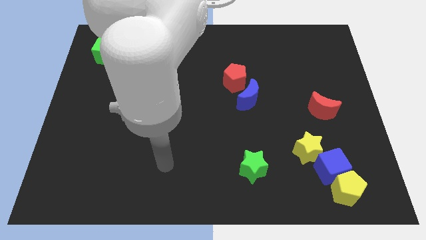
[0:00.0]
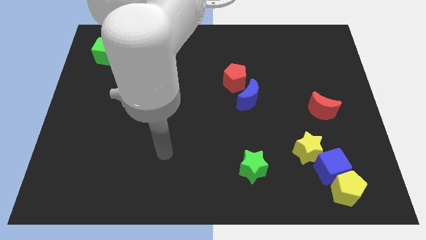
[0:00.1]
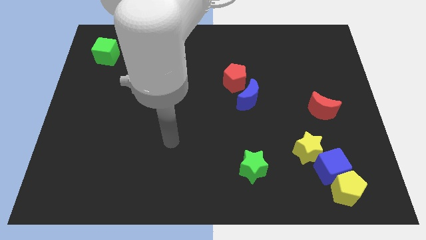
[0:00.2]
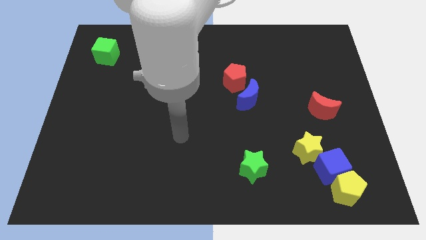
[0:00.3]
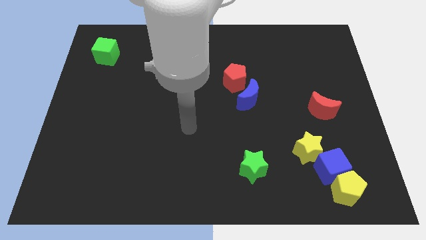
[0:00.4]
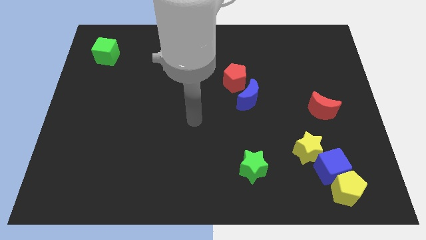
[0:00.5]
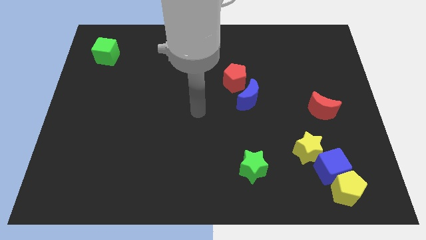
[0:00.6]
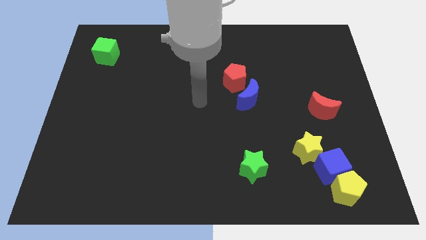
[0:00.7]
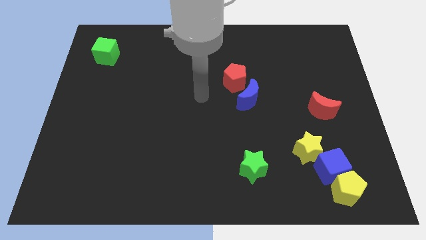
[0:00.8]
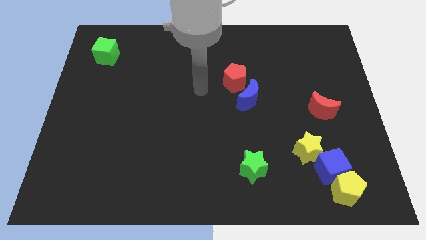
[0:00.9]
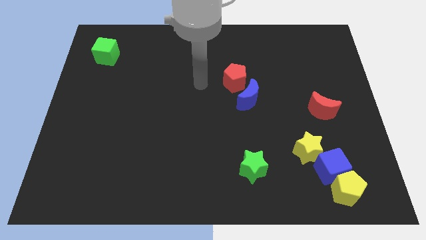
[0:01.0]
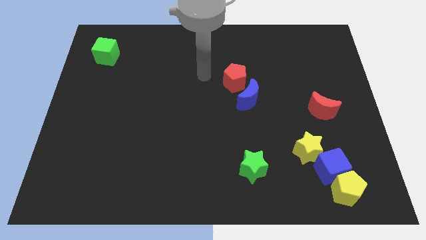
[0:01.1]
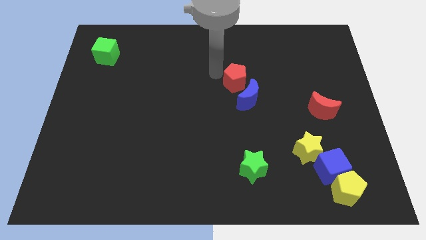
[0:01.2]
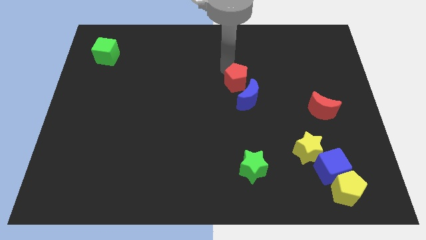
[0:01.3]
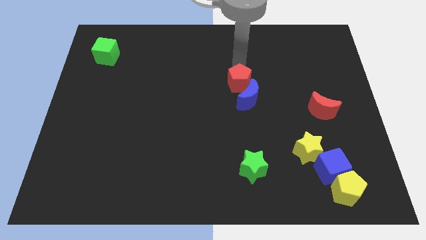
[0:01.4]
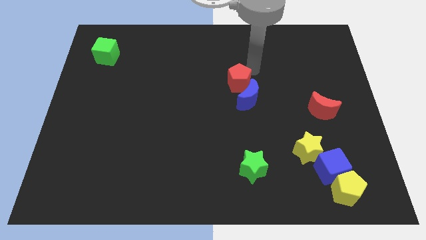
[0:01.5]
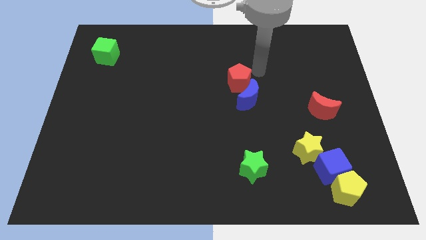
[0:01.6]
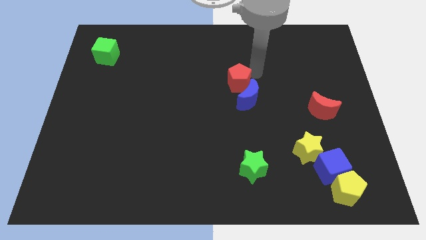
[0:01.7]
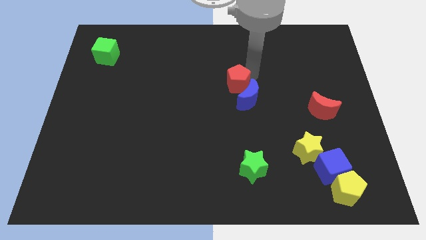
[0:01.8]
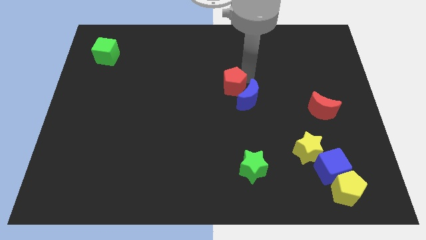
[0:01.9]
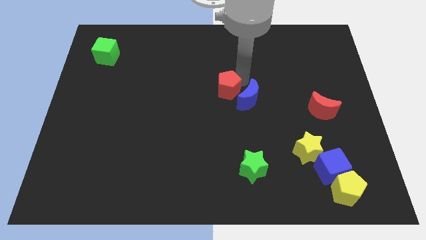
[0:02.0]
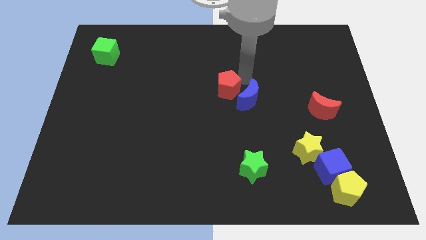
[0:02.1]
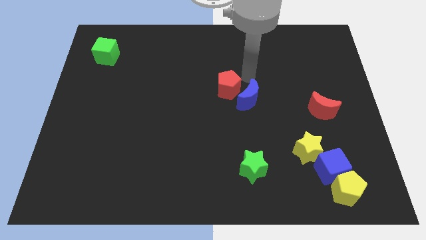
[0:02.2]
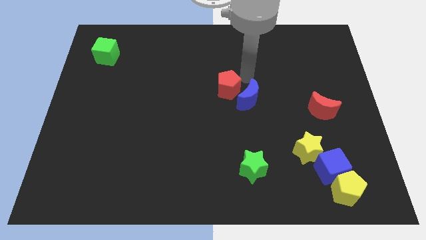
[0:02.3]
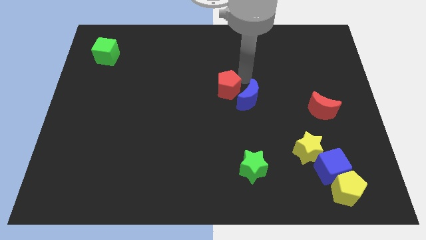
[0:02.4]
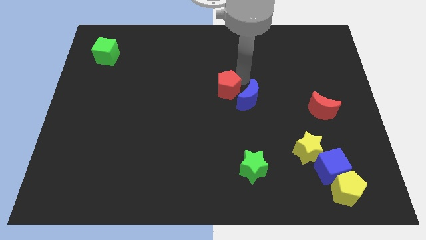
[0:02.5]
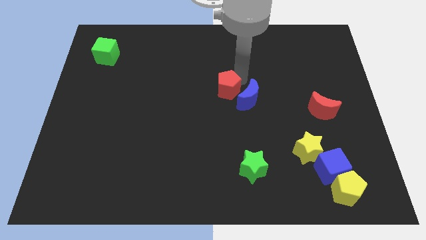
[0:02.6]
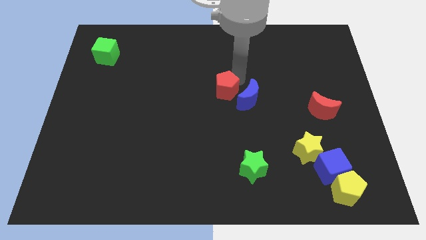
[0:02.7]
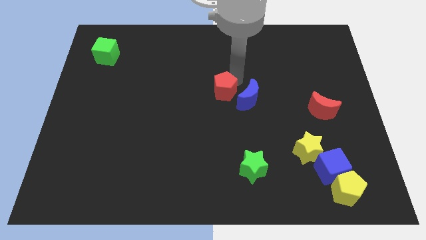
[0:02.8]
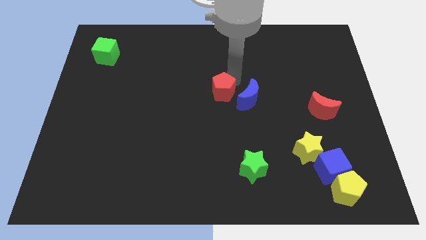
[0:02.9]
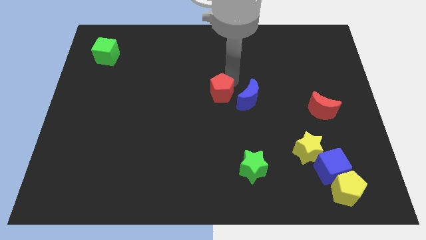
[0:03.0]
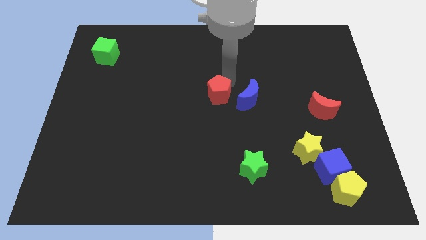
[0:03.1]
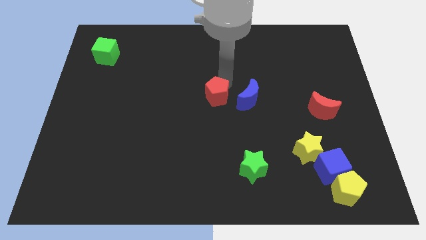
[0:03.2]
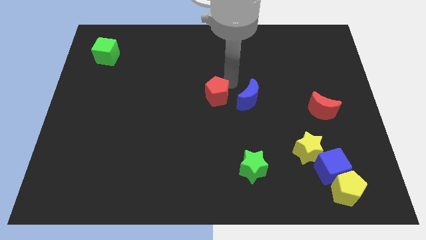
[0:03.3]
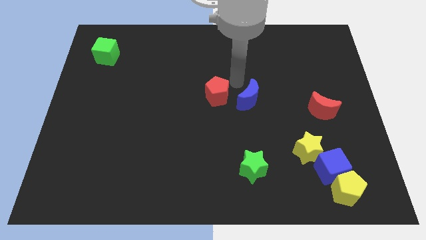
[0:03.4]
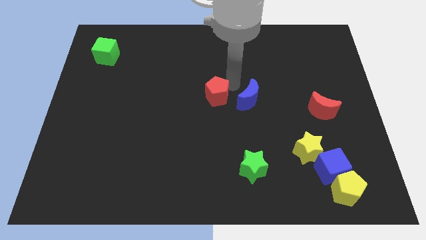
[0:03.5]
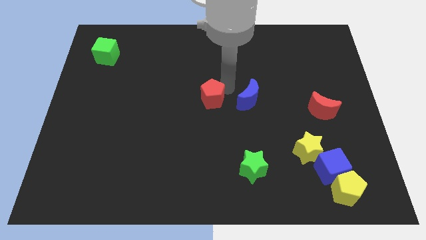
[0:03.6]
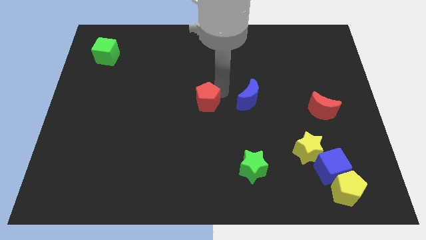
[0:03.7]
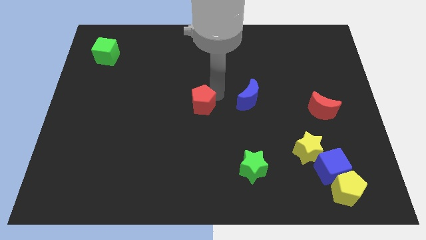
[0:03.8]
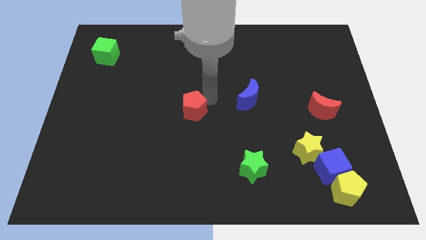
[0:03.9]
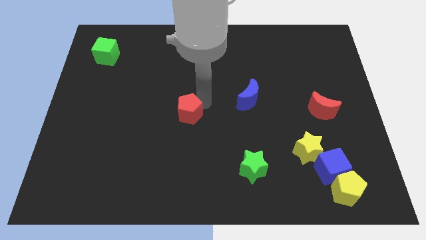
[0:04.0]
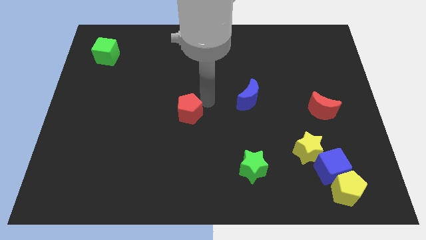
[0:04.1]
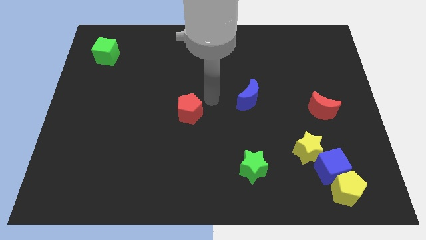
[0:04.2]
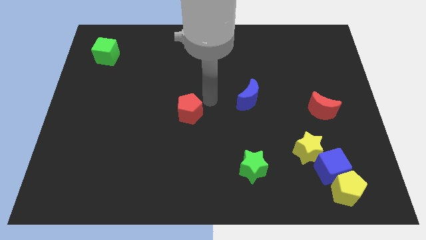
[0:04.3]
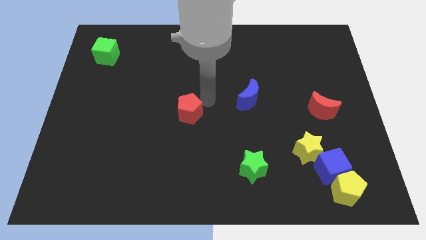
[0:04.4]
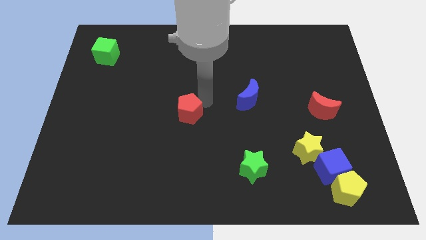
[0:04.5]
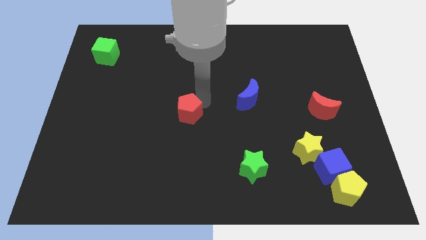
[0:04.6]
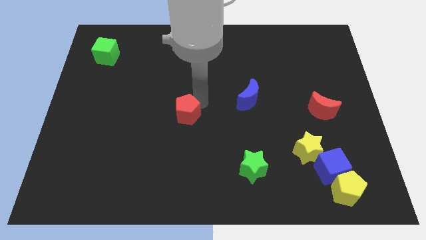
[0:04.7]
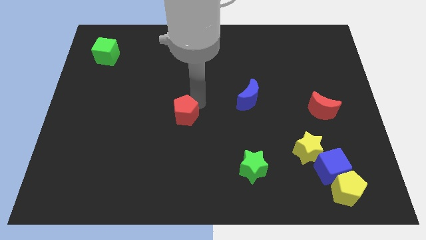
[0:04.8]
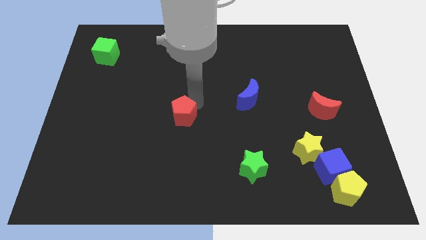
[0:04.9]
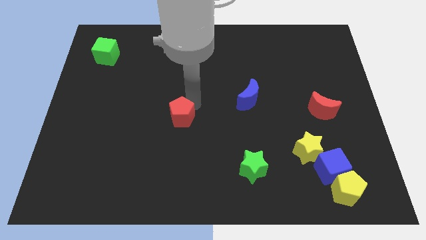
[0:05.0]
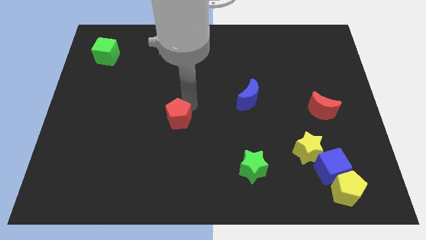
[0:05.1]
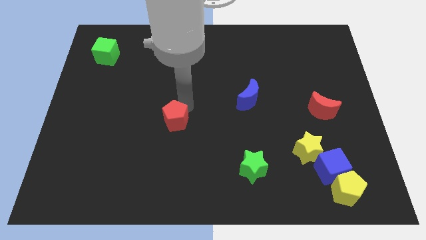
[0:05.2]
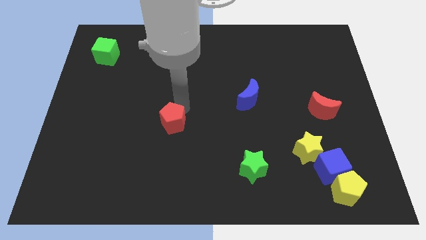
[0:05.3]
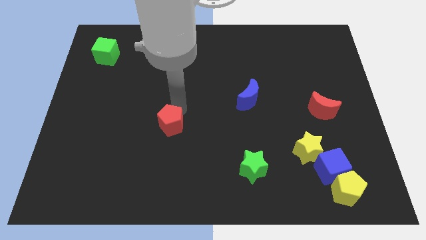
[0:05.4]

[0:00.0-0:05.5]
push the red pentagon downwards and left

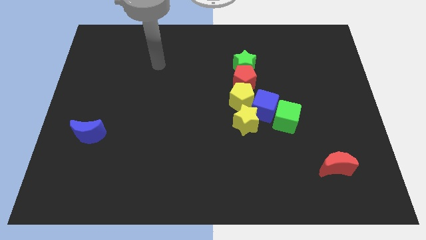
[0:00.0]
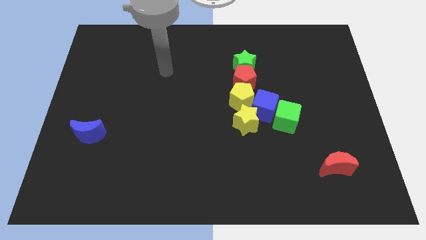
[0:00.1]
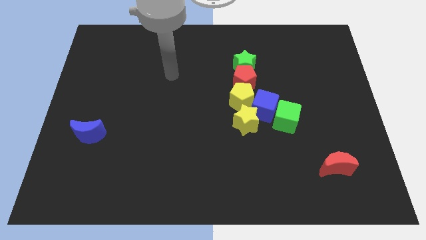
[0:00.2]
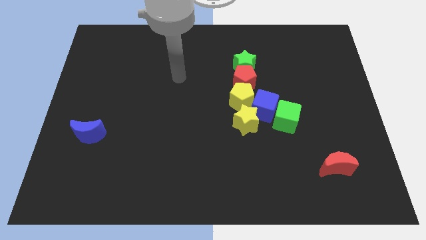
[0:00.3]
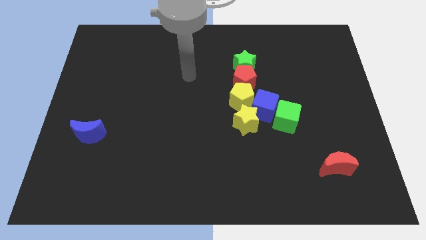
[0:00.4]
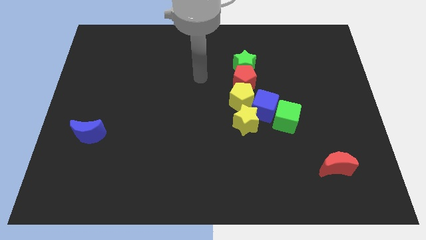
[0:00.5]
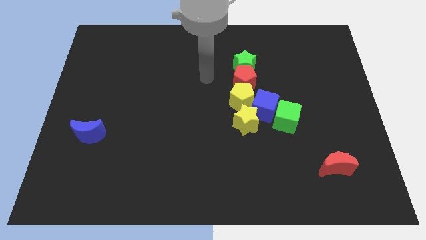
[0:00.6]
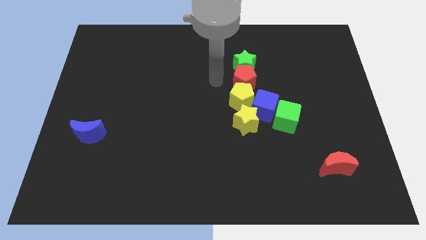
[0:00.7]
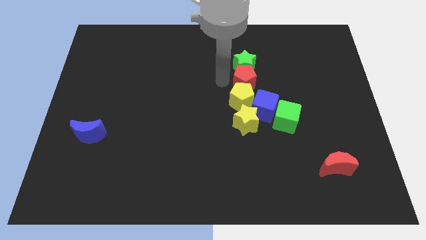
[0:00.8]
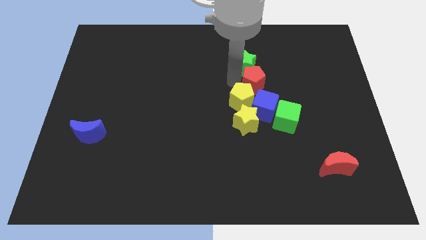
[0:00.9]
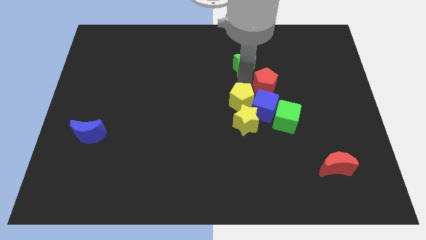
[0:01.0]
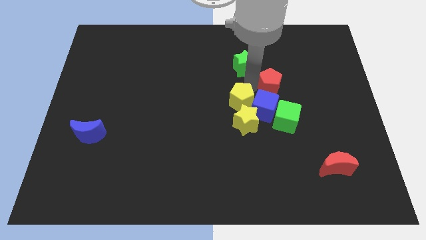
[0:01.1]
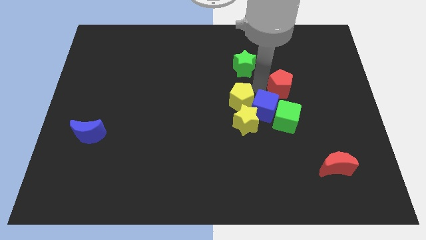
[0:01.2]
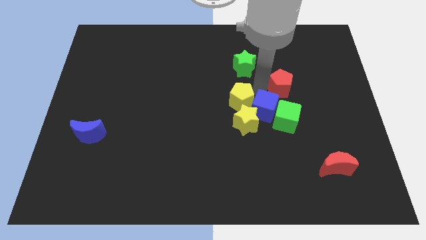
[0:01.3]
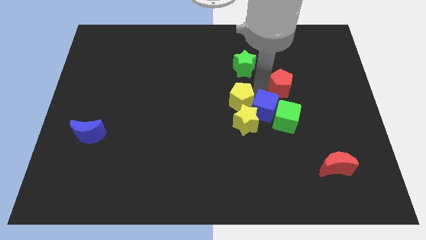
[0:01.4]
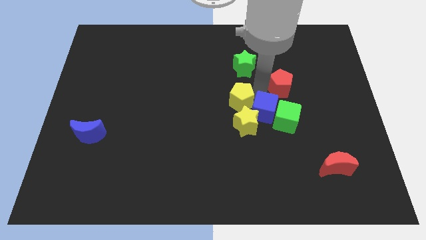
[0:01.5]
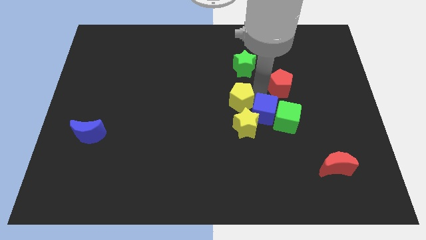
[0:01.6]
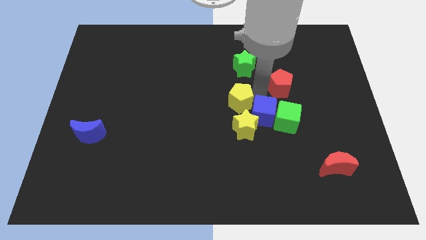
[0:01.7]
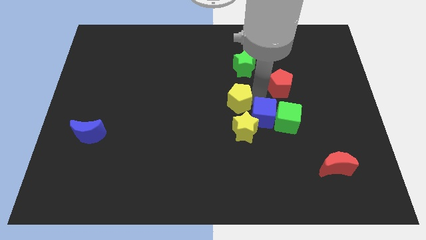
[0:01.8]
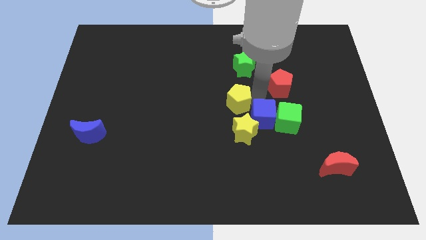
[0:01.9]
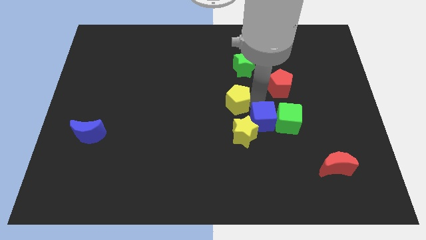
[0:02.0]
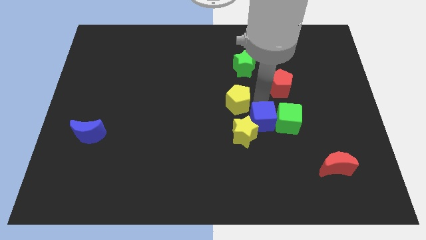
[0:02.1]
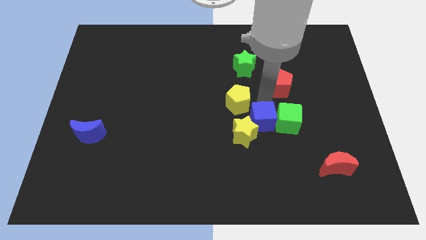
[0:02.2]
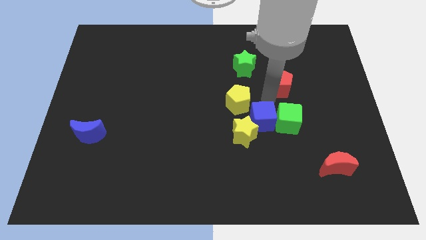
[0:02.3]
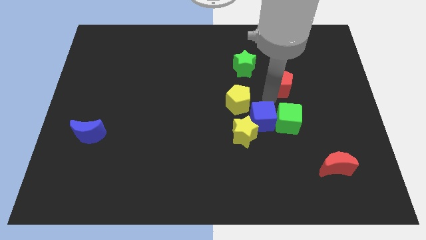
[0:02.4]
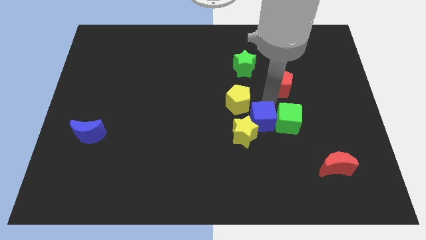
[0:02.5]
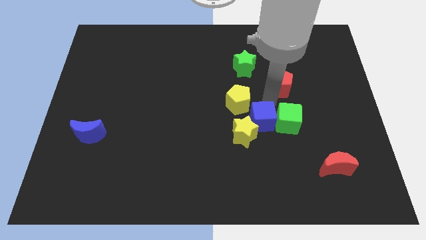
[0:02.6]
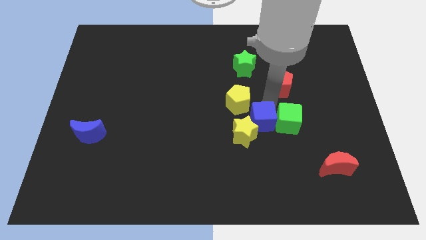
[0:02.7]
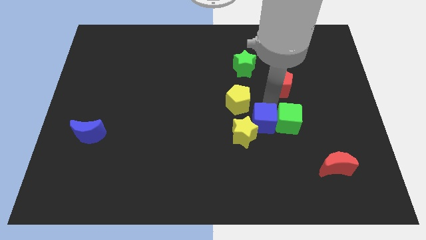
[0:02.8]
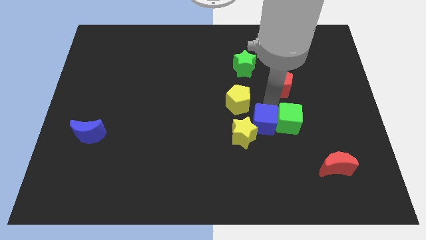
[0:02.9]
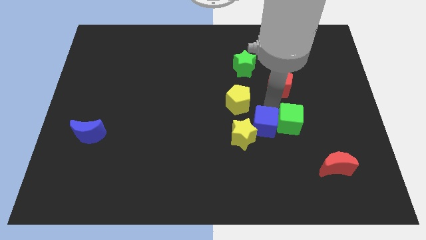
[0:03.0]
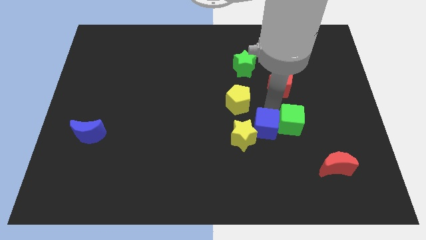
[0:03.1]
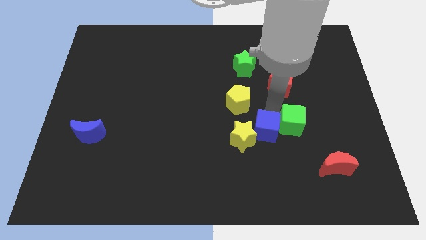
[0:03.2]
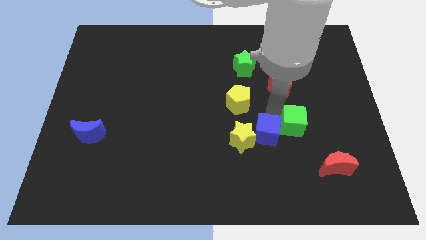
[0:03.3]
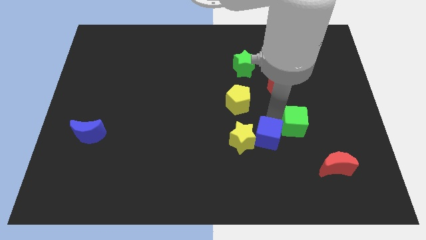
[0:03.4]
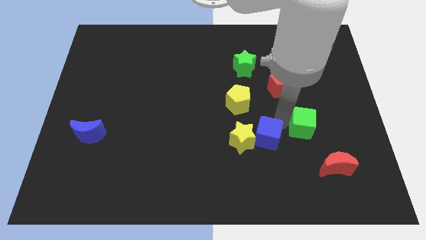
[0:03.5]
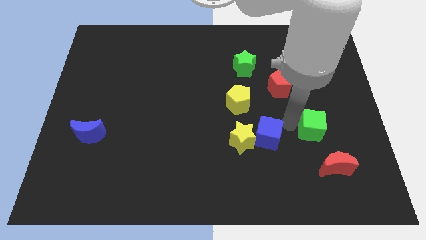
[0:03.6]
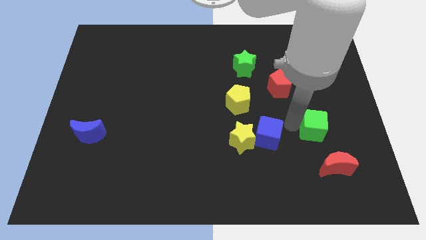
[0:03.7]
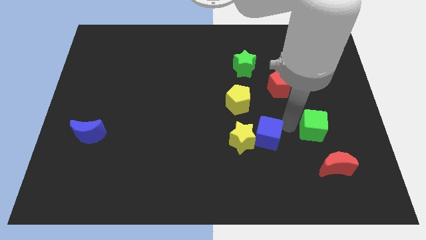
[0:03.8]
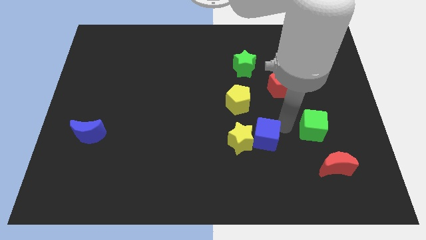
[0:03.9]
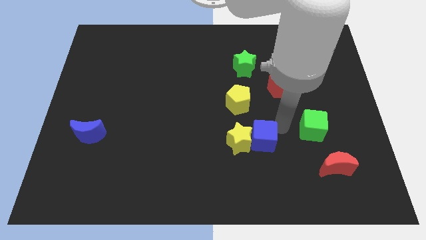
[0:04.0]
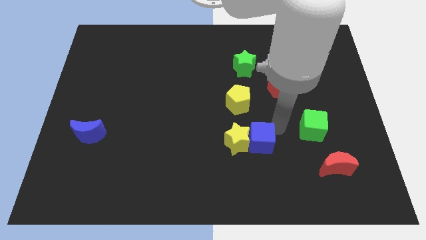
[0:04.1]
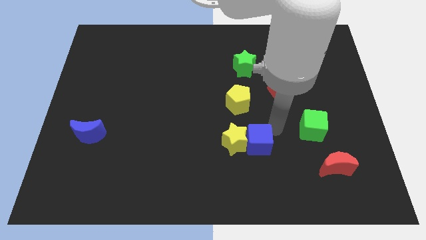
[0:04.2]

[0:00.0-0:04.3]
slightly move the blue cube down and to the left diagonally
